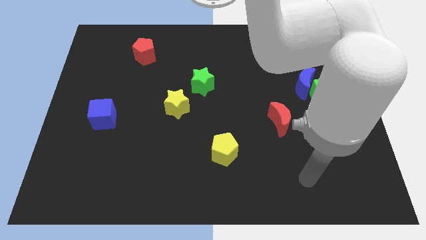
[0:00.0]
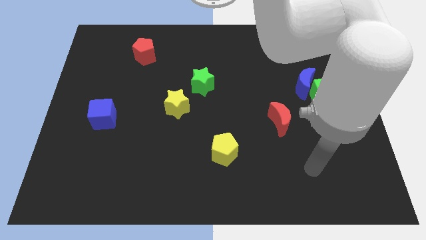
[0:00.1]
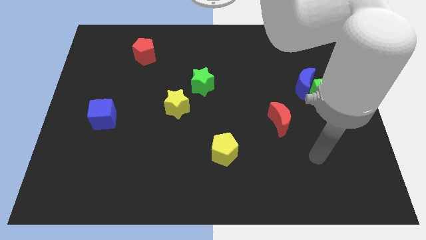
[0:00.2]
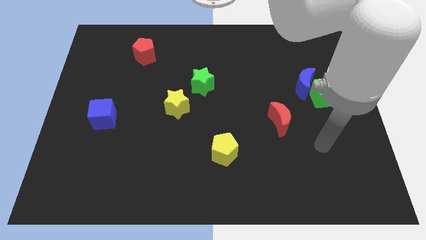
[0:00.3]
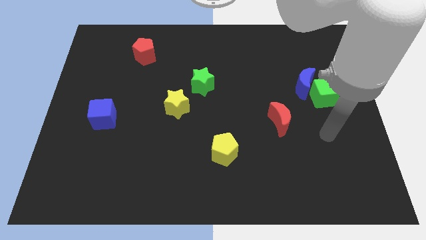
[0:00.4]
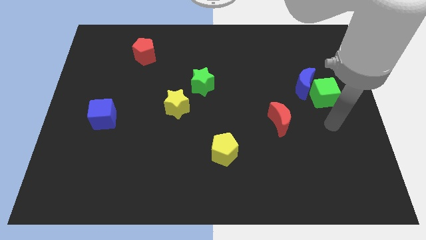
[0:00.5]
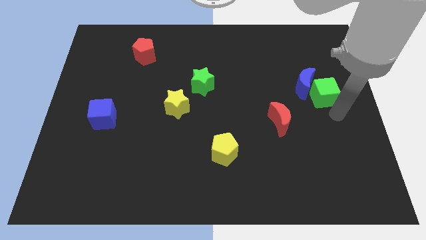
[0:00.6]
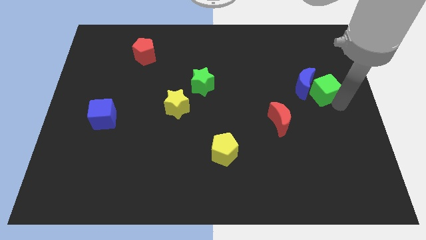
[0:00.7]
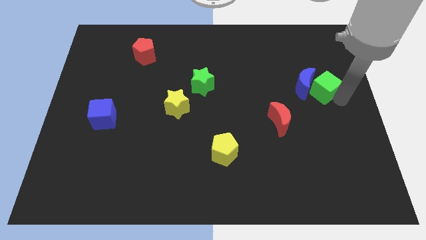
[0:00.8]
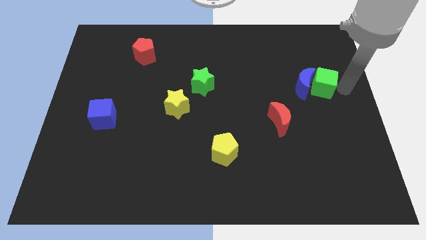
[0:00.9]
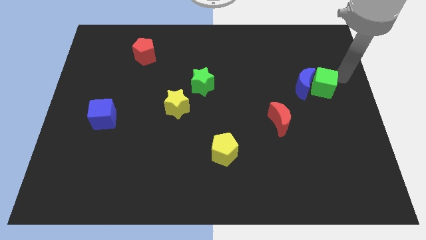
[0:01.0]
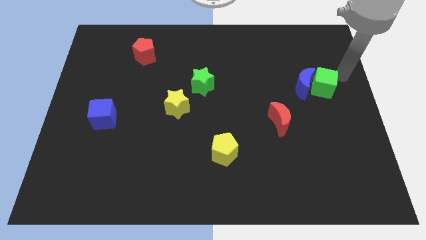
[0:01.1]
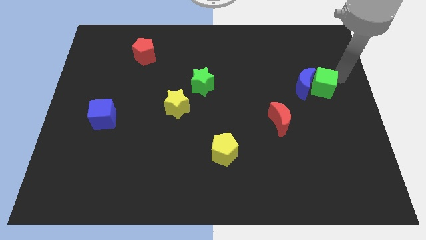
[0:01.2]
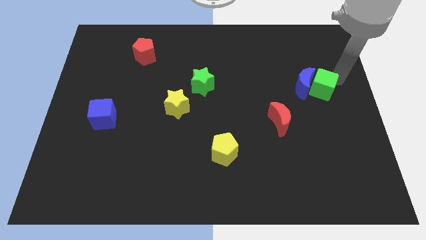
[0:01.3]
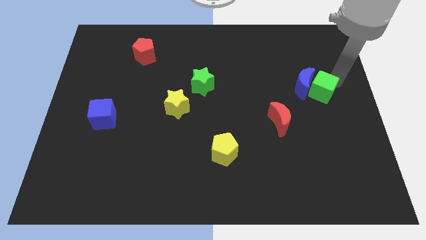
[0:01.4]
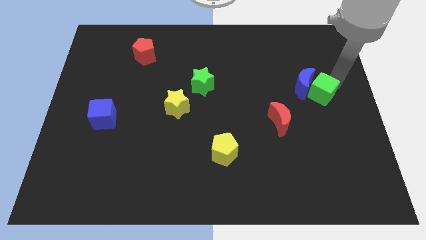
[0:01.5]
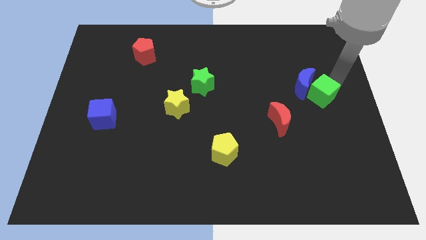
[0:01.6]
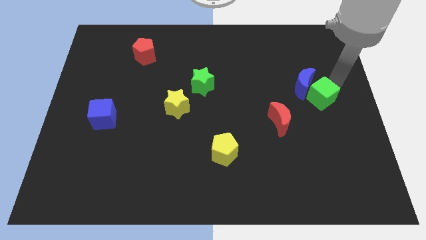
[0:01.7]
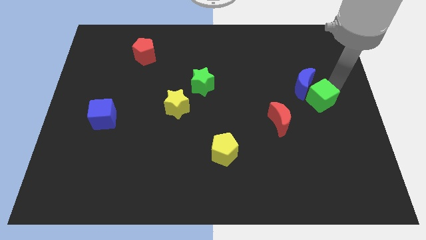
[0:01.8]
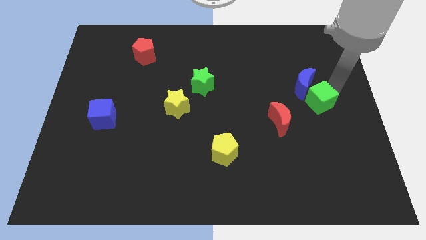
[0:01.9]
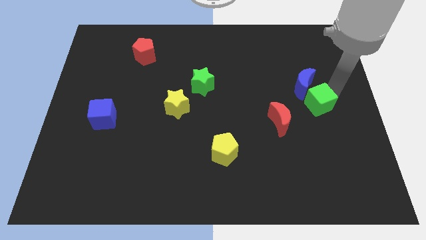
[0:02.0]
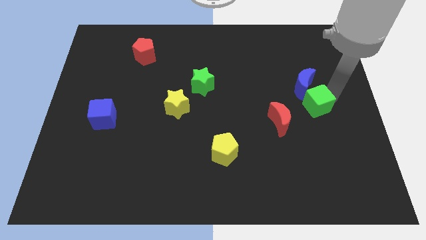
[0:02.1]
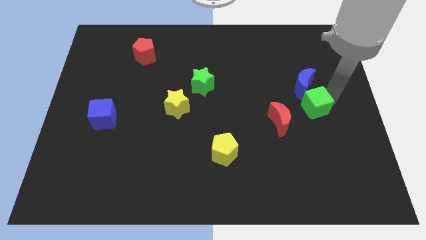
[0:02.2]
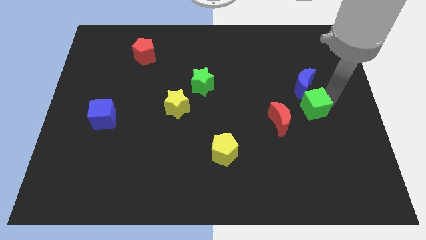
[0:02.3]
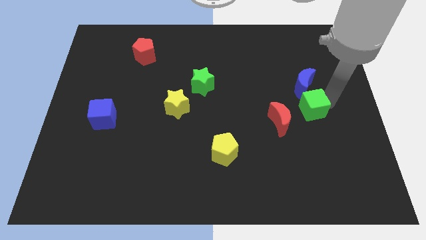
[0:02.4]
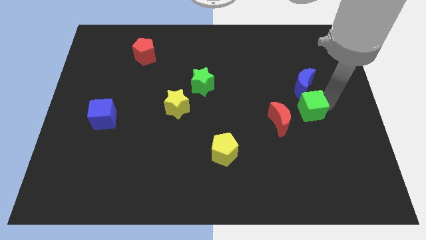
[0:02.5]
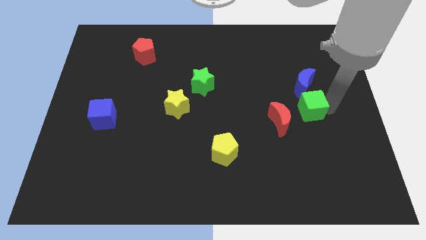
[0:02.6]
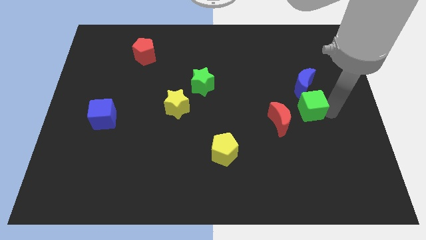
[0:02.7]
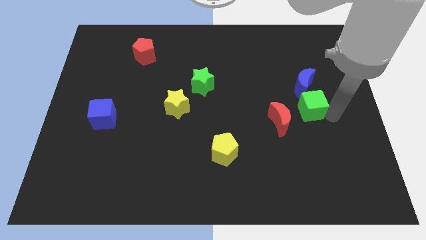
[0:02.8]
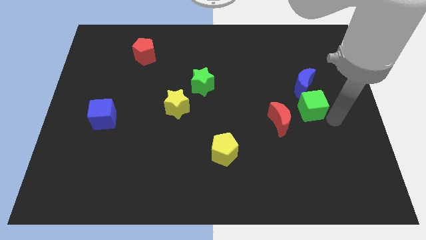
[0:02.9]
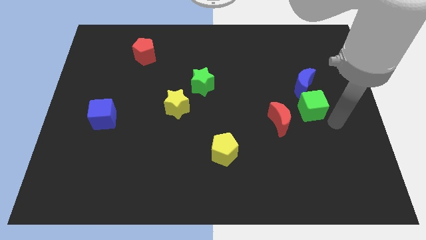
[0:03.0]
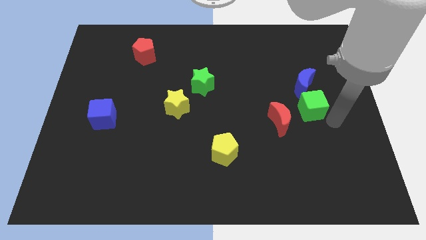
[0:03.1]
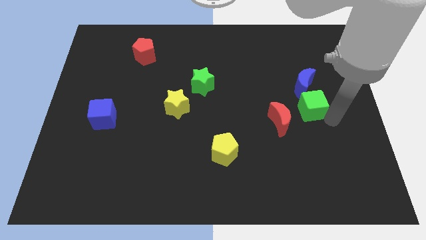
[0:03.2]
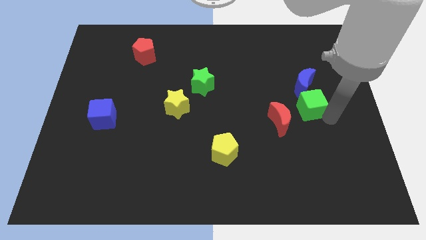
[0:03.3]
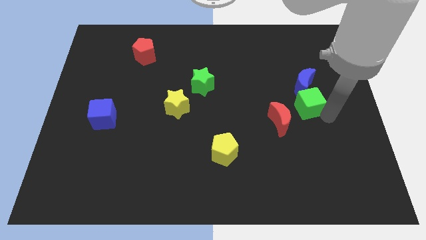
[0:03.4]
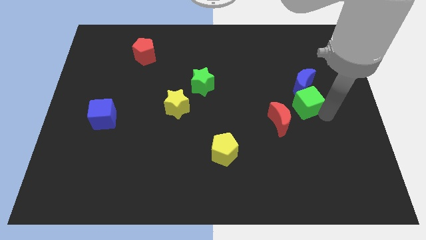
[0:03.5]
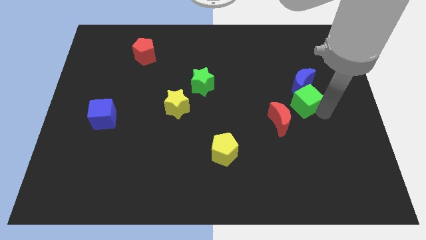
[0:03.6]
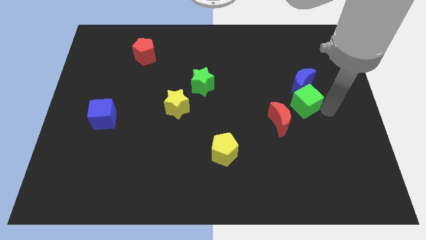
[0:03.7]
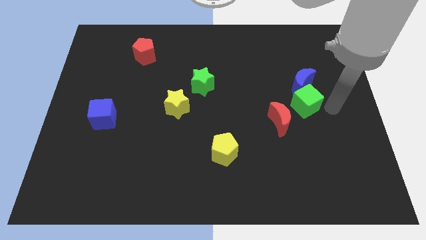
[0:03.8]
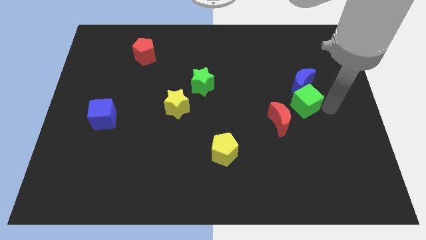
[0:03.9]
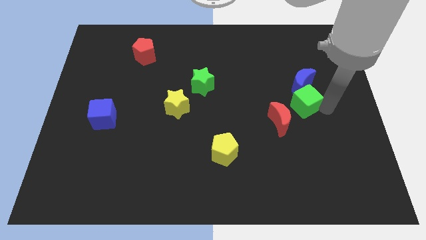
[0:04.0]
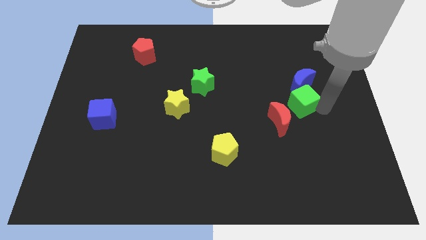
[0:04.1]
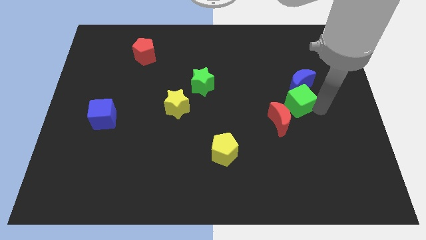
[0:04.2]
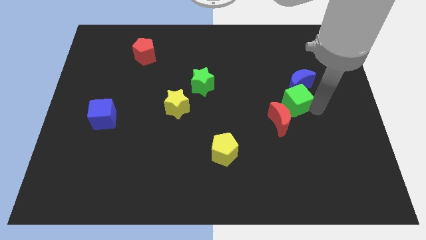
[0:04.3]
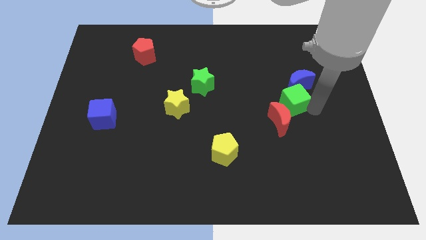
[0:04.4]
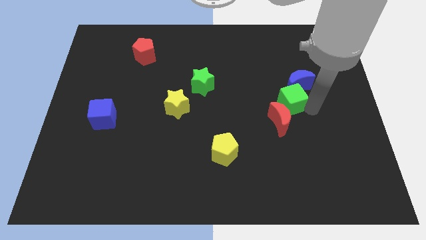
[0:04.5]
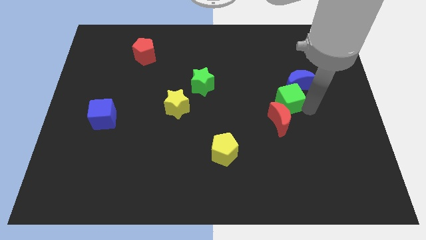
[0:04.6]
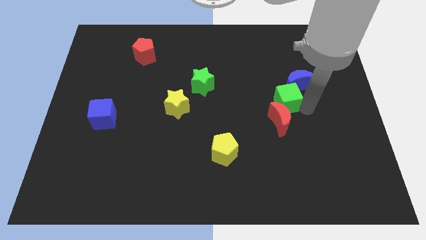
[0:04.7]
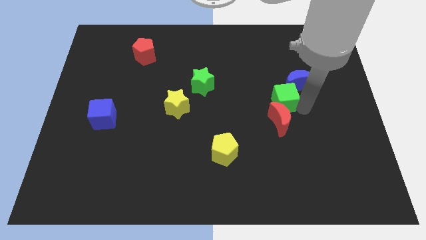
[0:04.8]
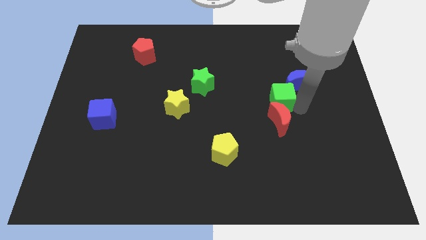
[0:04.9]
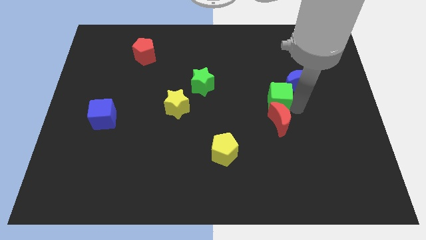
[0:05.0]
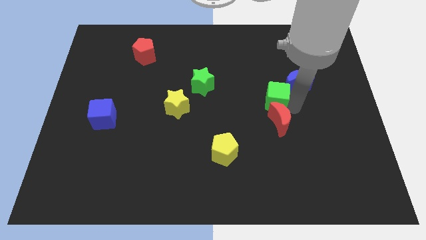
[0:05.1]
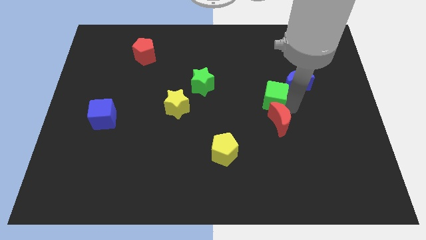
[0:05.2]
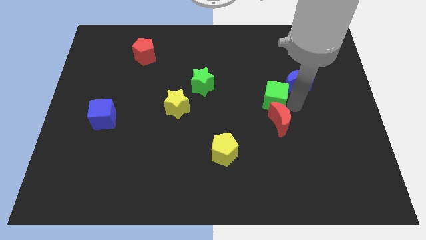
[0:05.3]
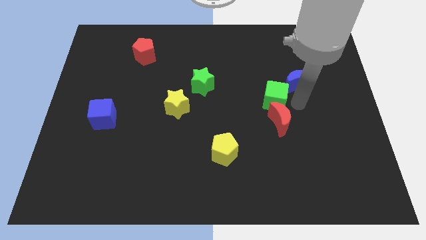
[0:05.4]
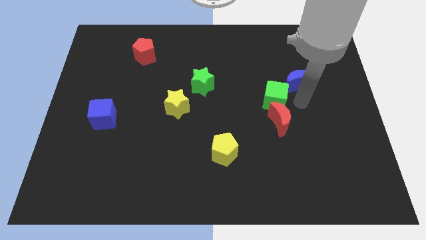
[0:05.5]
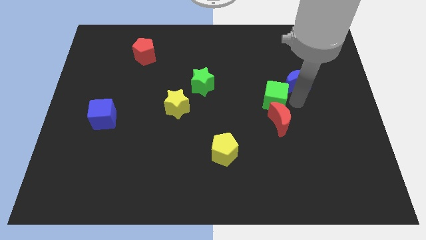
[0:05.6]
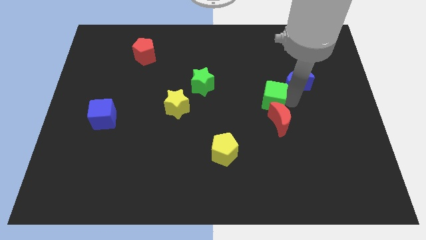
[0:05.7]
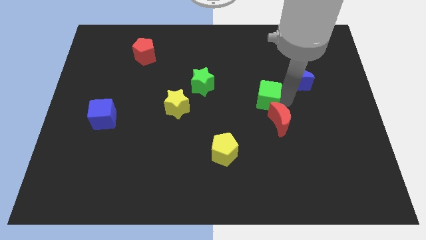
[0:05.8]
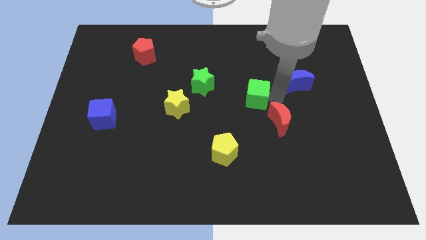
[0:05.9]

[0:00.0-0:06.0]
push the green cube to the center

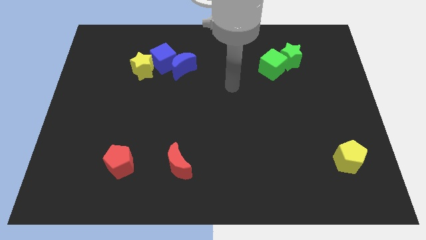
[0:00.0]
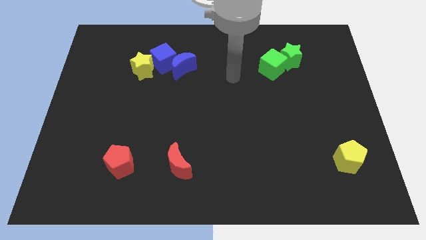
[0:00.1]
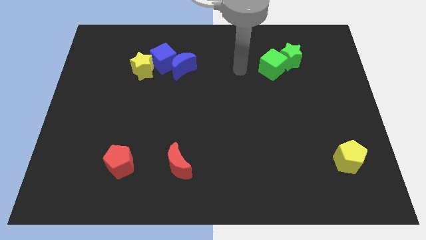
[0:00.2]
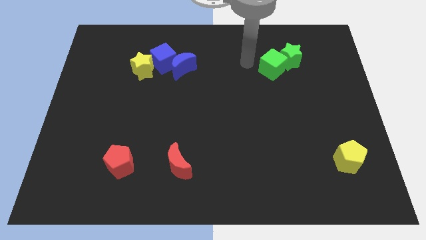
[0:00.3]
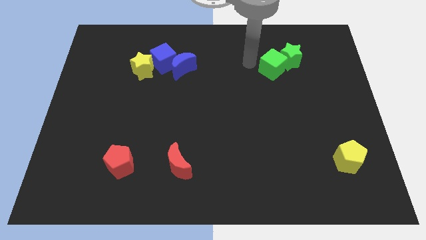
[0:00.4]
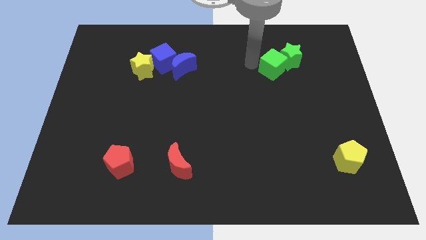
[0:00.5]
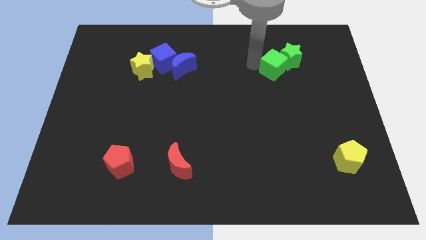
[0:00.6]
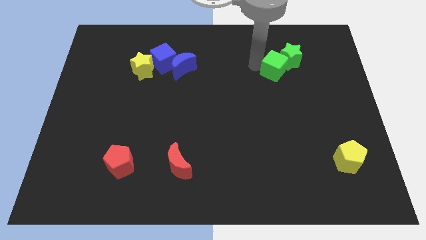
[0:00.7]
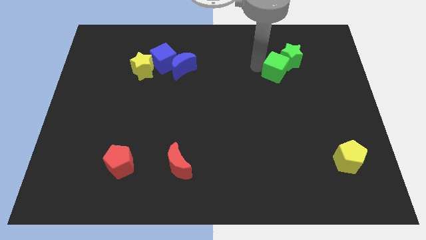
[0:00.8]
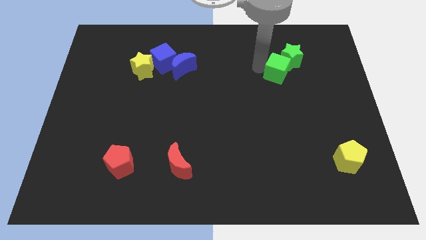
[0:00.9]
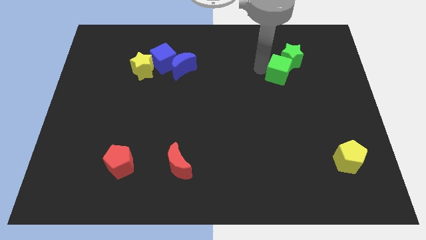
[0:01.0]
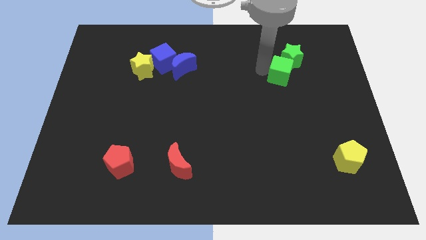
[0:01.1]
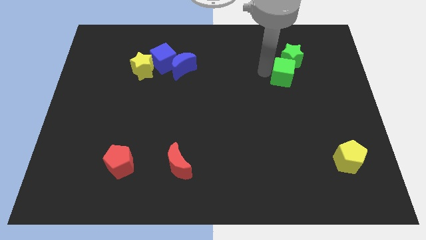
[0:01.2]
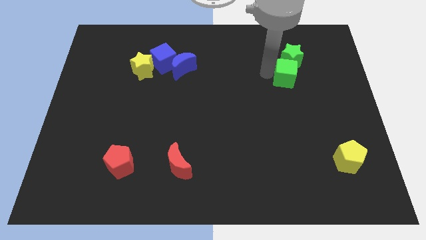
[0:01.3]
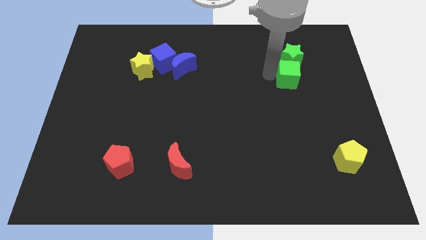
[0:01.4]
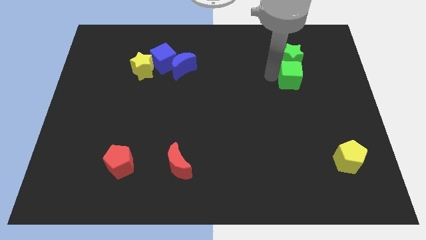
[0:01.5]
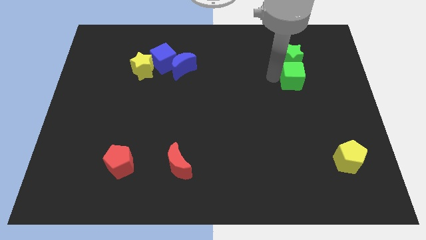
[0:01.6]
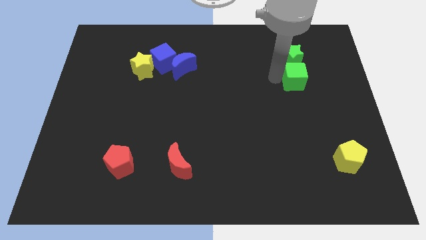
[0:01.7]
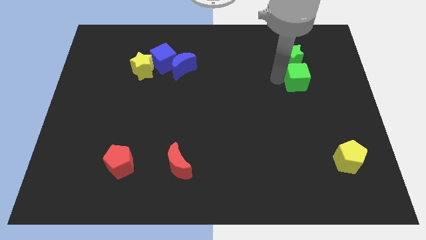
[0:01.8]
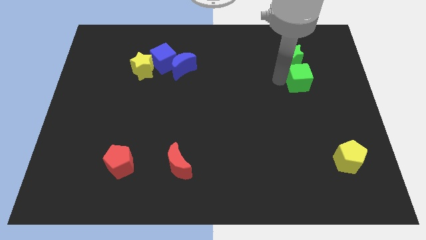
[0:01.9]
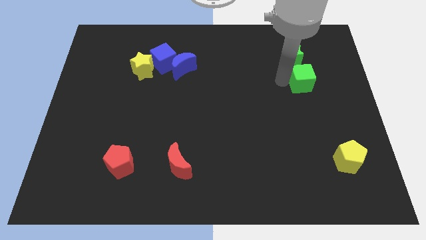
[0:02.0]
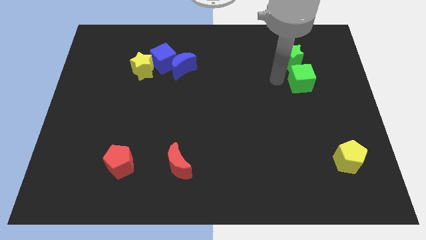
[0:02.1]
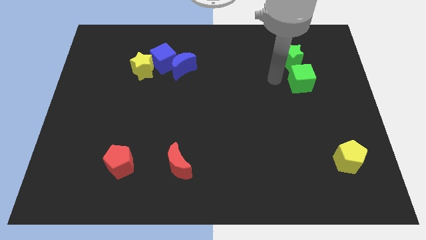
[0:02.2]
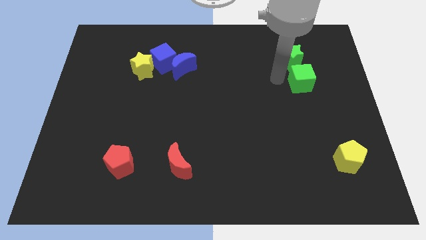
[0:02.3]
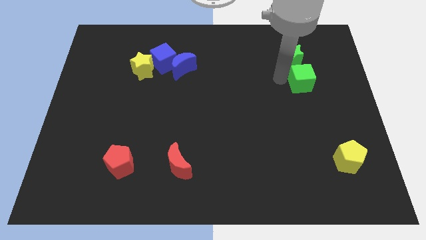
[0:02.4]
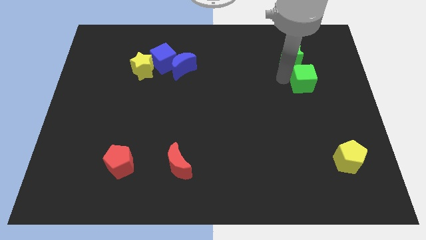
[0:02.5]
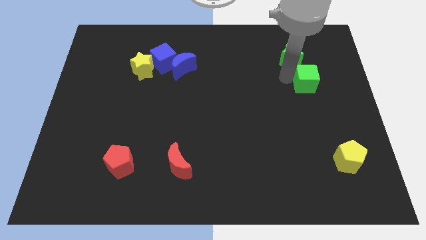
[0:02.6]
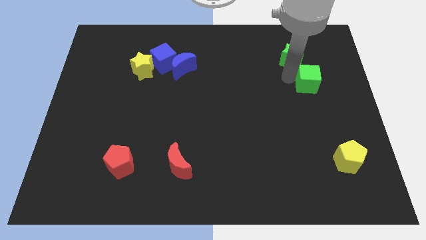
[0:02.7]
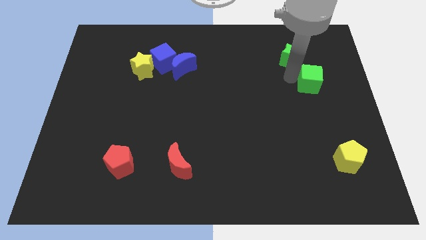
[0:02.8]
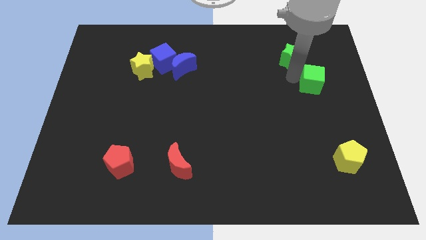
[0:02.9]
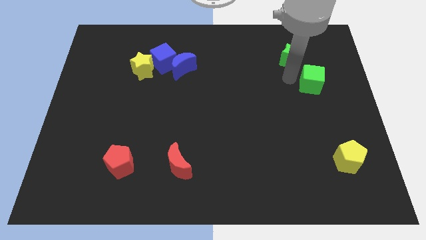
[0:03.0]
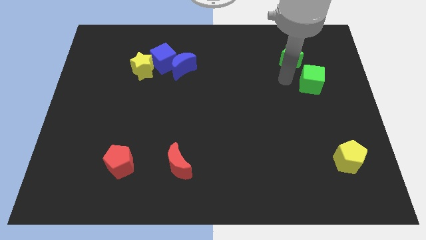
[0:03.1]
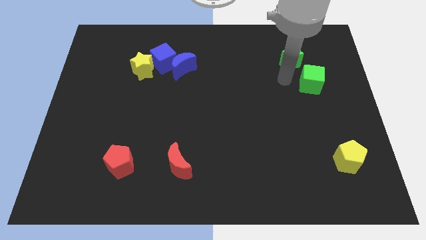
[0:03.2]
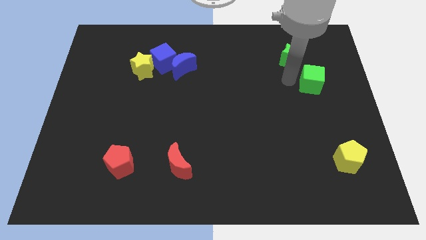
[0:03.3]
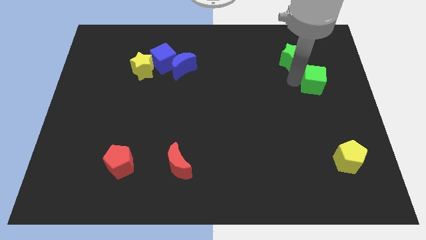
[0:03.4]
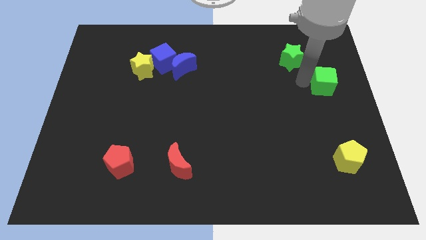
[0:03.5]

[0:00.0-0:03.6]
slide the green cube to the right side of the board
